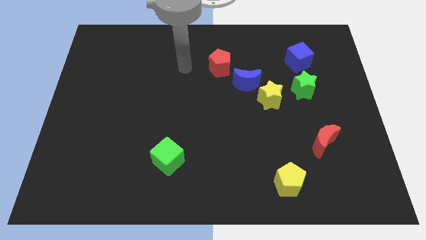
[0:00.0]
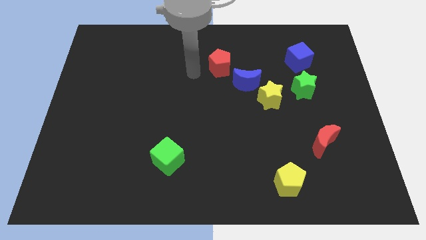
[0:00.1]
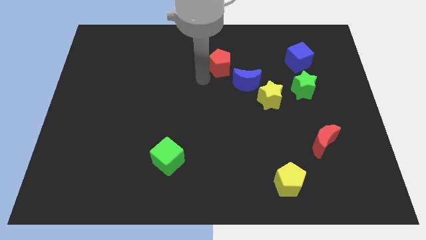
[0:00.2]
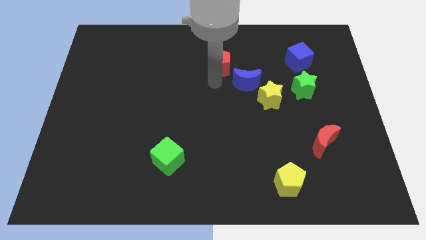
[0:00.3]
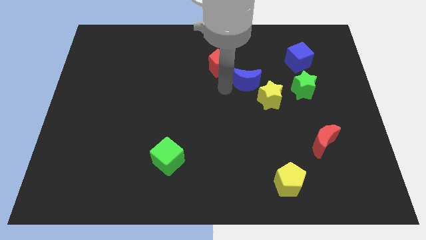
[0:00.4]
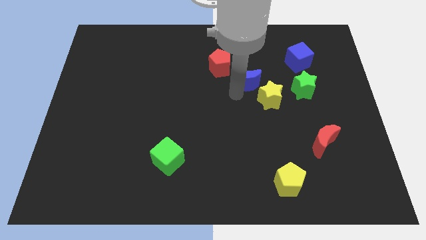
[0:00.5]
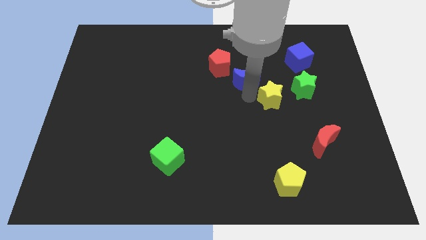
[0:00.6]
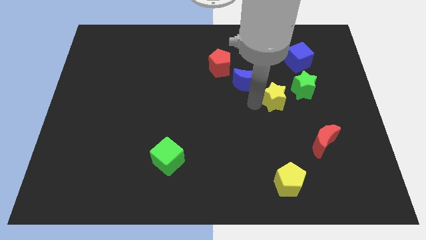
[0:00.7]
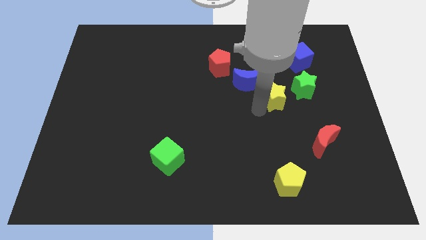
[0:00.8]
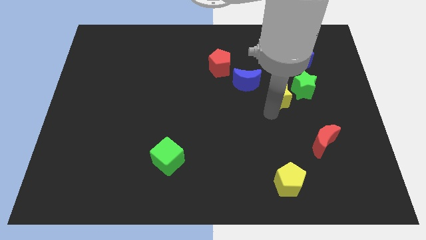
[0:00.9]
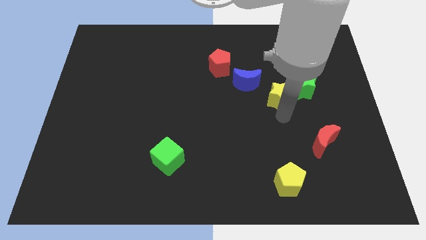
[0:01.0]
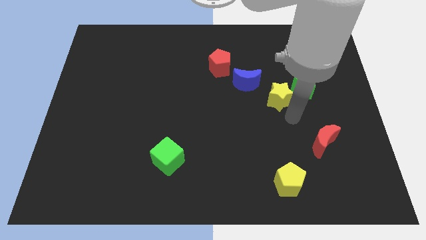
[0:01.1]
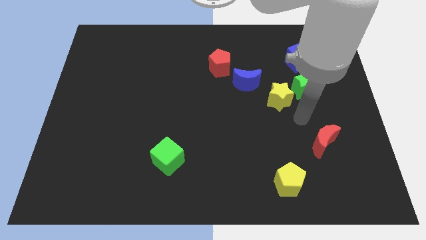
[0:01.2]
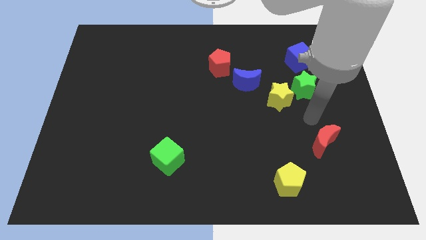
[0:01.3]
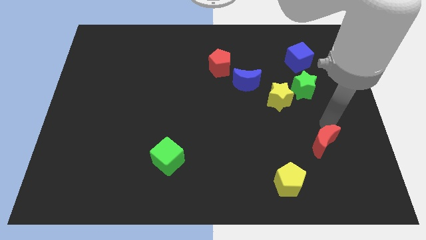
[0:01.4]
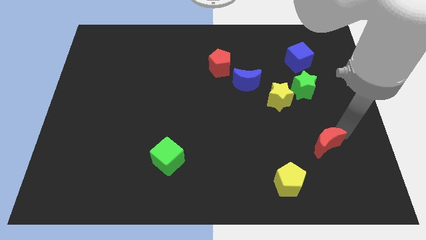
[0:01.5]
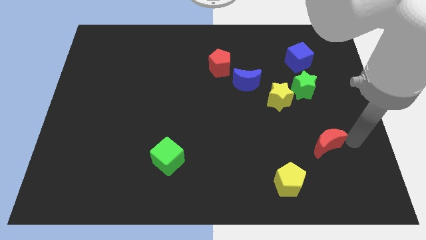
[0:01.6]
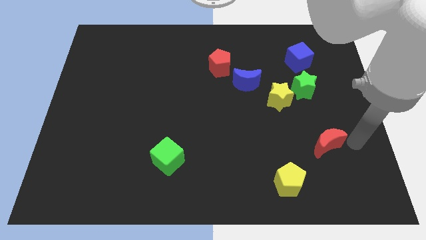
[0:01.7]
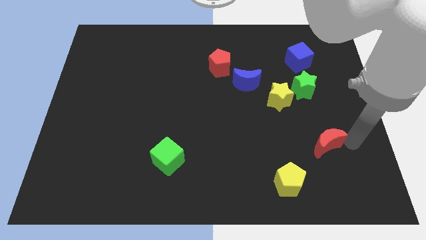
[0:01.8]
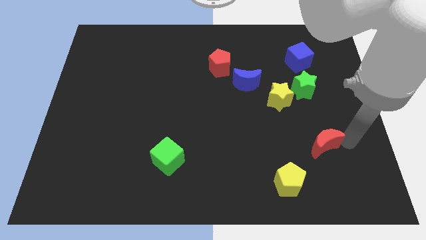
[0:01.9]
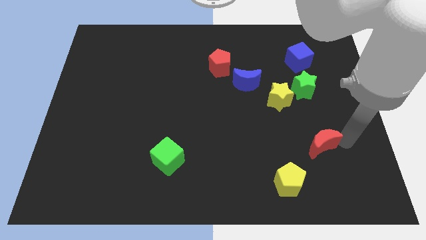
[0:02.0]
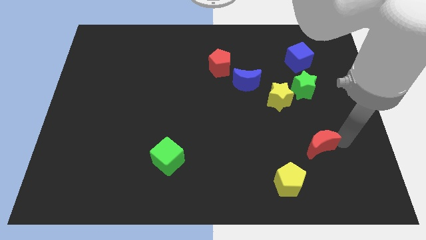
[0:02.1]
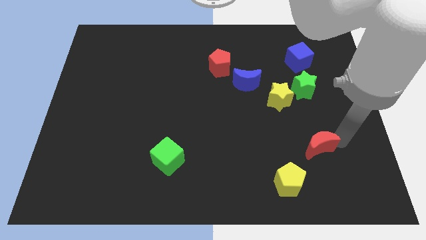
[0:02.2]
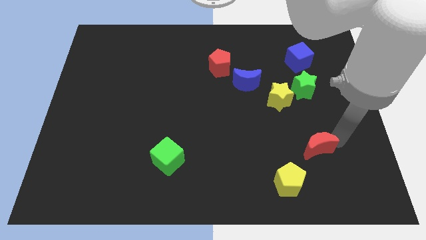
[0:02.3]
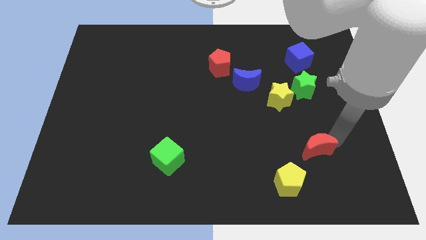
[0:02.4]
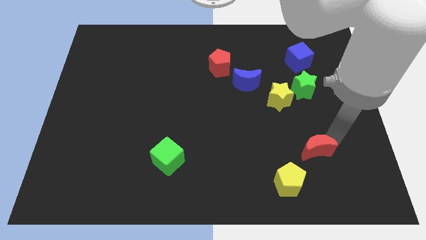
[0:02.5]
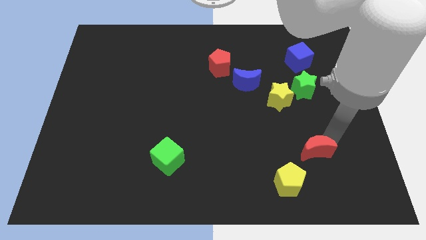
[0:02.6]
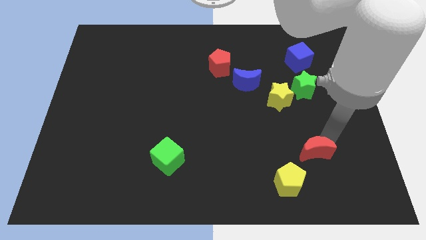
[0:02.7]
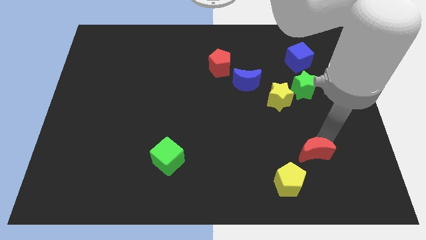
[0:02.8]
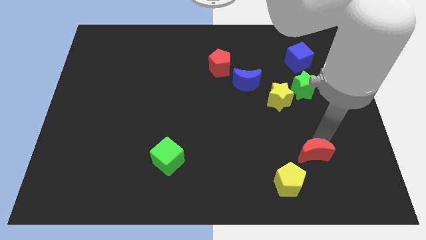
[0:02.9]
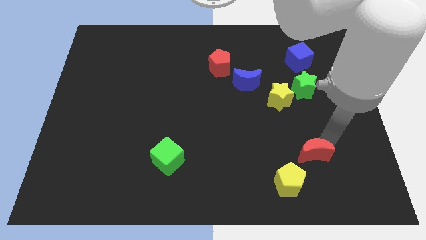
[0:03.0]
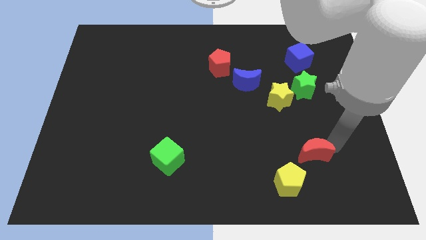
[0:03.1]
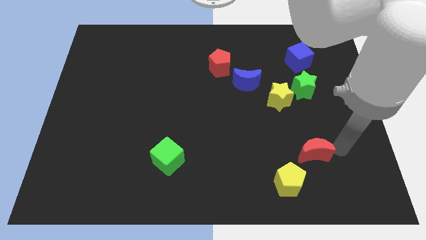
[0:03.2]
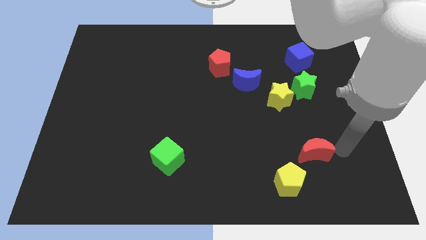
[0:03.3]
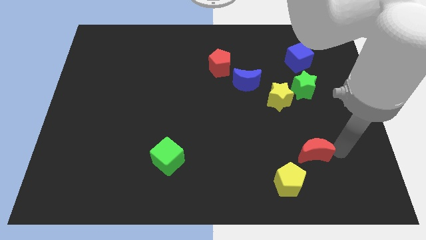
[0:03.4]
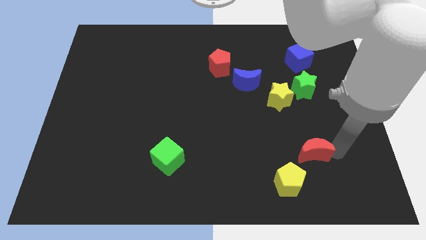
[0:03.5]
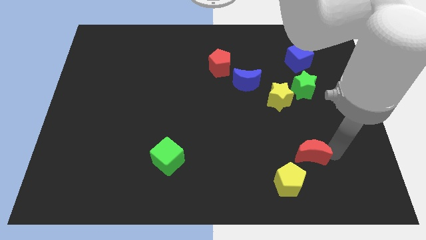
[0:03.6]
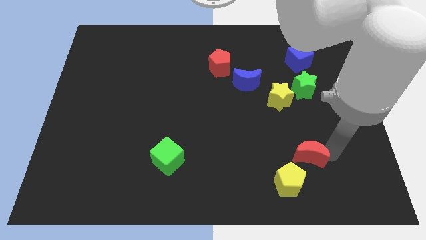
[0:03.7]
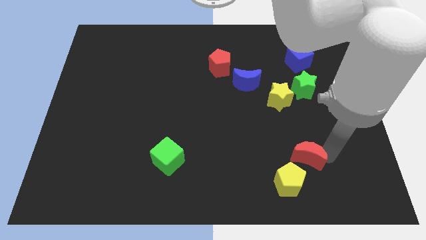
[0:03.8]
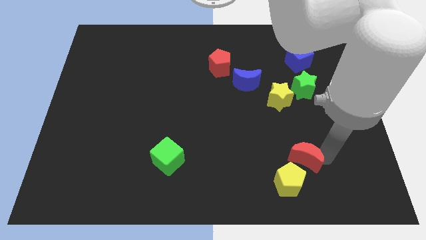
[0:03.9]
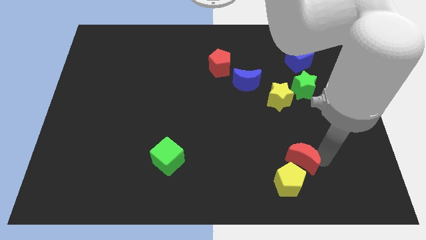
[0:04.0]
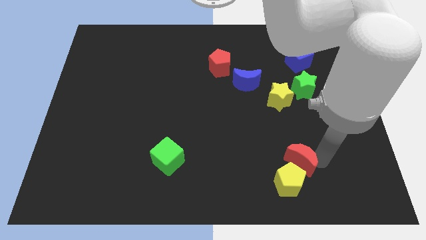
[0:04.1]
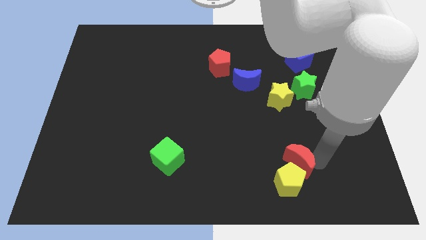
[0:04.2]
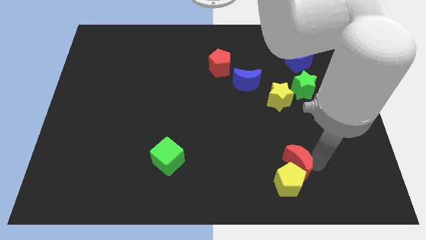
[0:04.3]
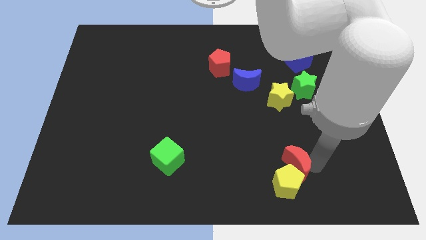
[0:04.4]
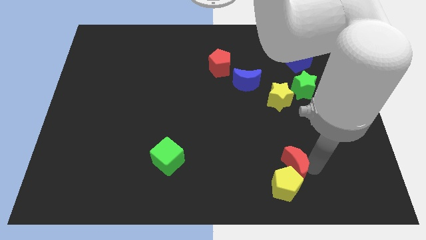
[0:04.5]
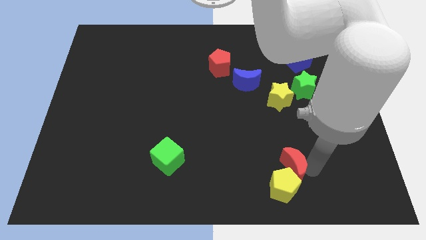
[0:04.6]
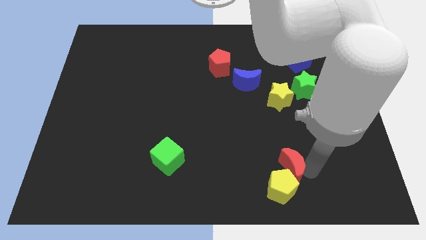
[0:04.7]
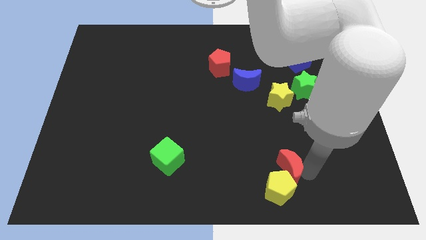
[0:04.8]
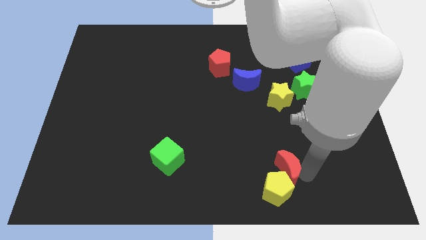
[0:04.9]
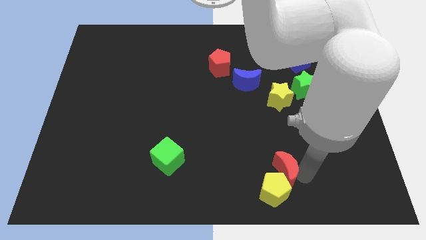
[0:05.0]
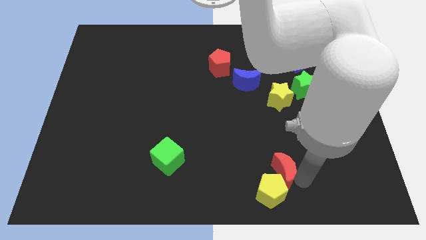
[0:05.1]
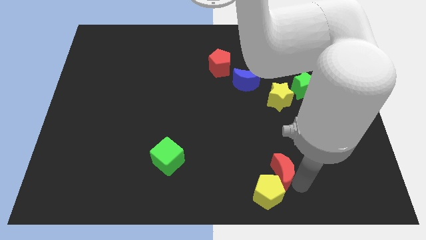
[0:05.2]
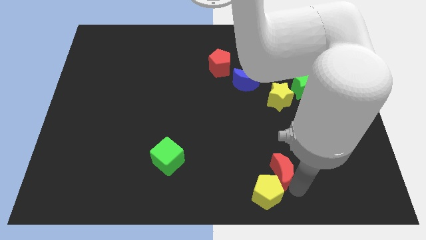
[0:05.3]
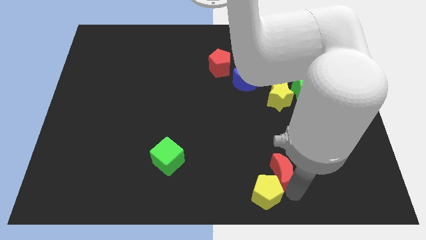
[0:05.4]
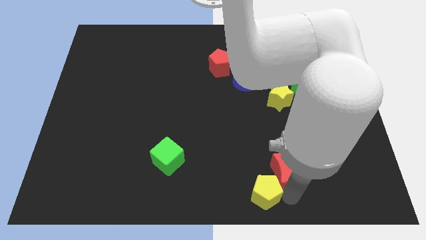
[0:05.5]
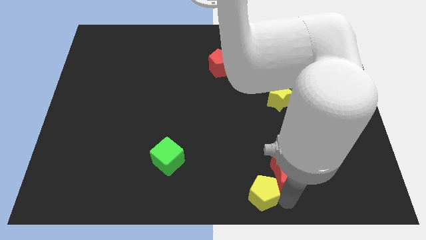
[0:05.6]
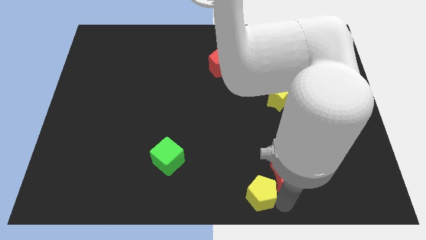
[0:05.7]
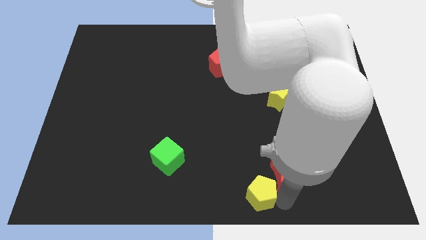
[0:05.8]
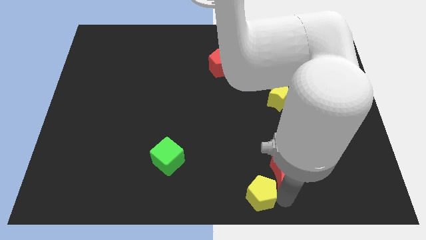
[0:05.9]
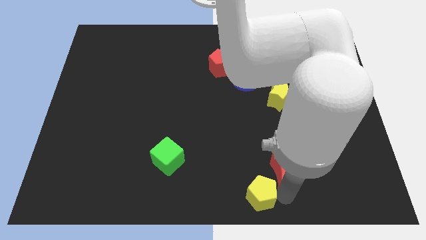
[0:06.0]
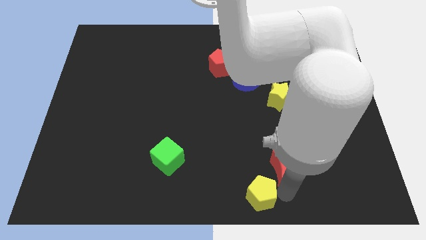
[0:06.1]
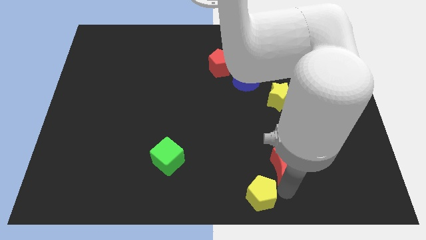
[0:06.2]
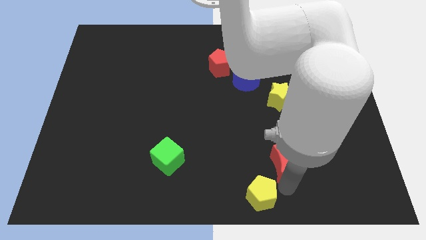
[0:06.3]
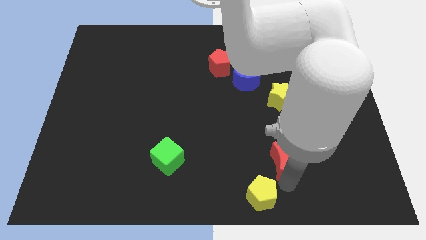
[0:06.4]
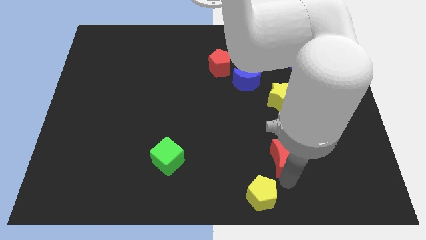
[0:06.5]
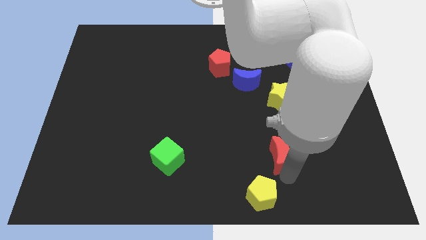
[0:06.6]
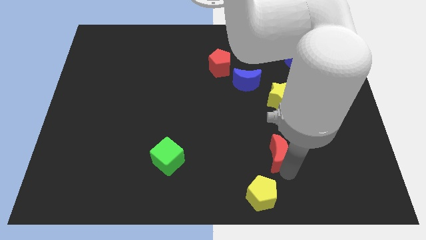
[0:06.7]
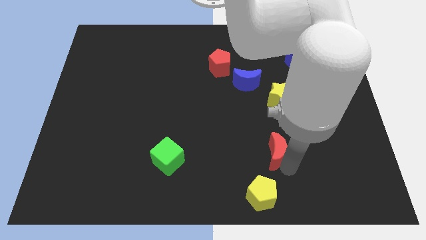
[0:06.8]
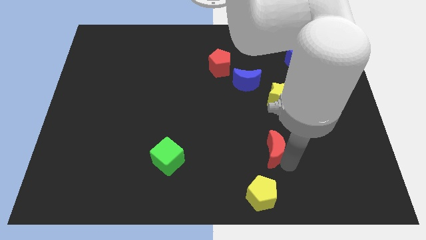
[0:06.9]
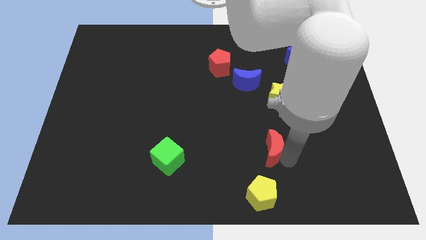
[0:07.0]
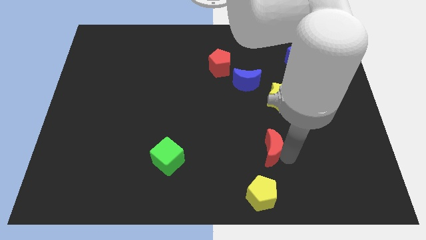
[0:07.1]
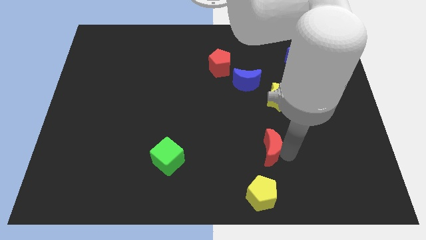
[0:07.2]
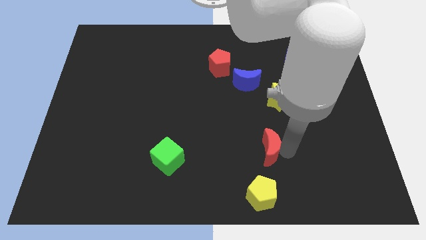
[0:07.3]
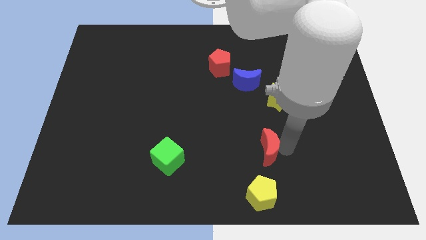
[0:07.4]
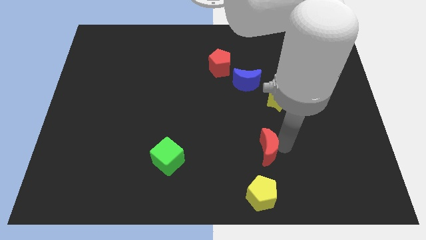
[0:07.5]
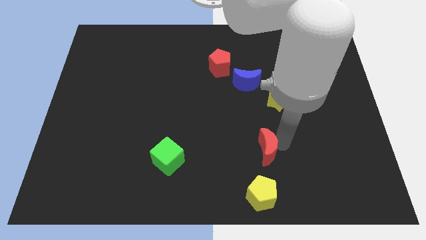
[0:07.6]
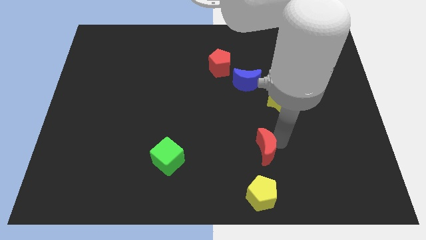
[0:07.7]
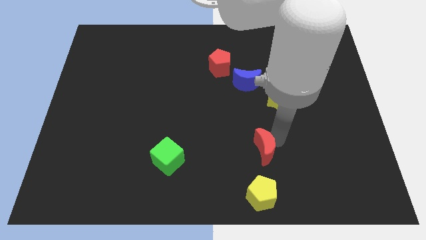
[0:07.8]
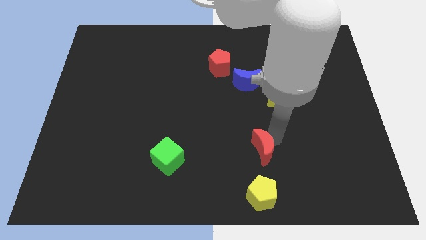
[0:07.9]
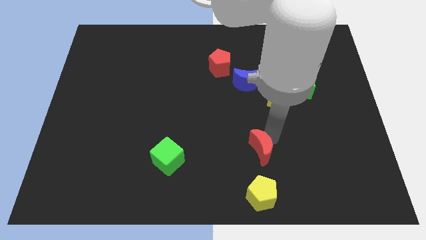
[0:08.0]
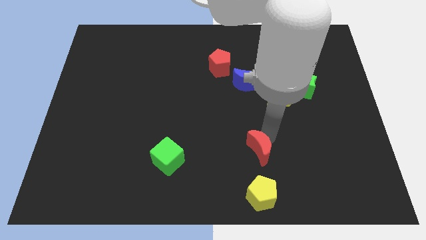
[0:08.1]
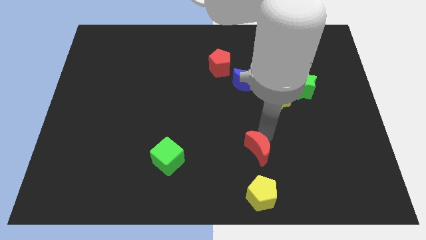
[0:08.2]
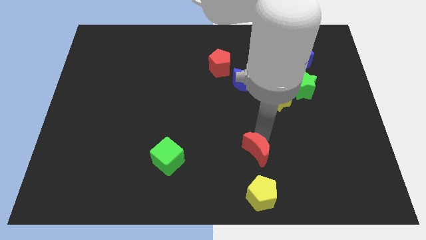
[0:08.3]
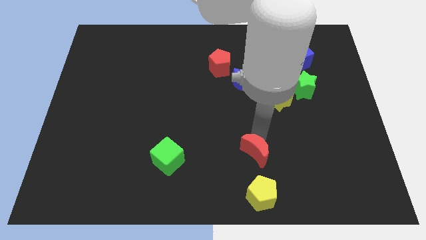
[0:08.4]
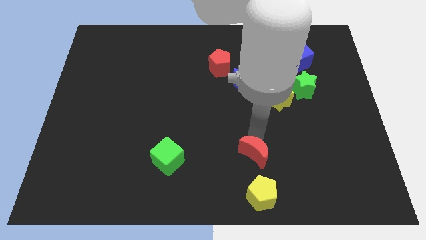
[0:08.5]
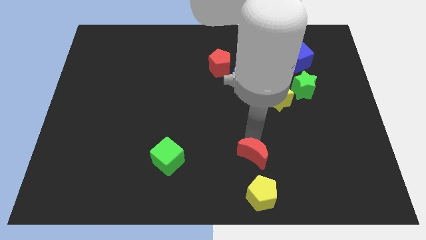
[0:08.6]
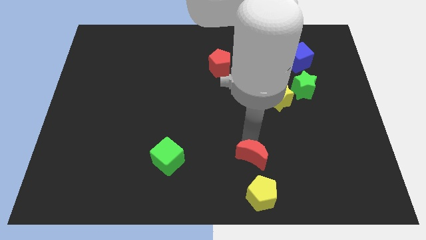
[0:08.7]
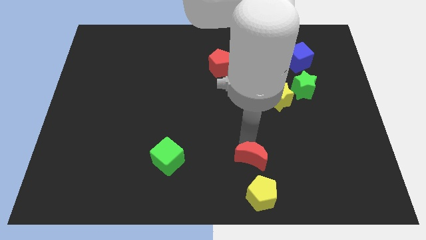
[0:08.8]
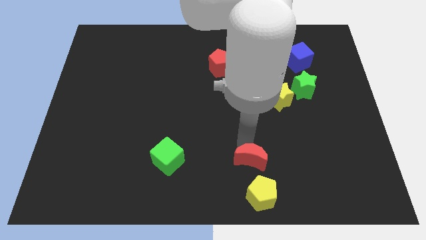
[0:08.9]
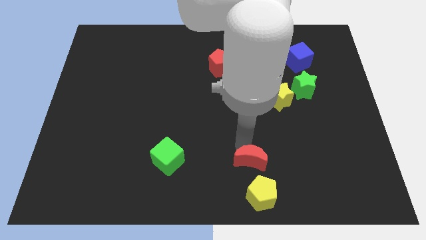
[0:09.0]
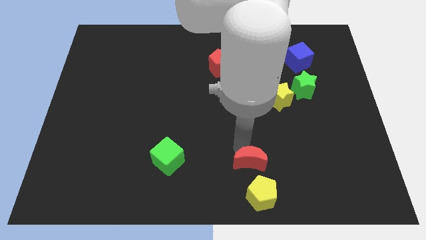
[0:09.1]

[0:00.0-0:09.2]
move the red moon to the bottom
